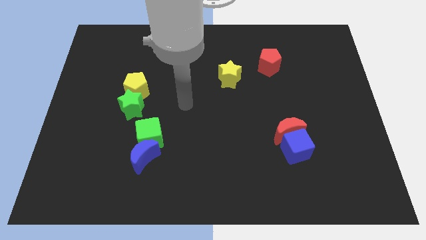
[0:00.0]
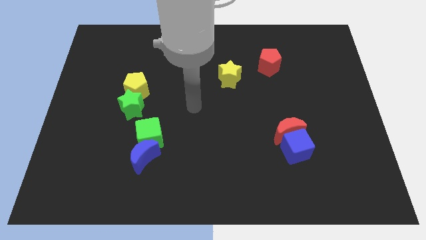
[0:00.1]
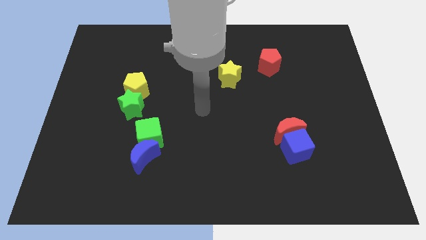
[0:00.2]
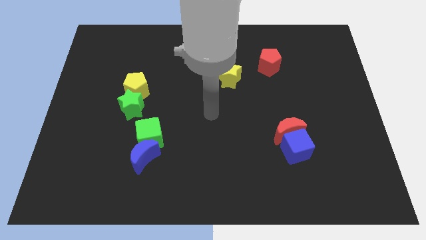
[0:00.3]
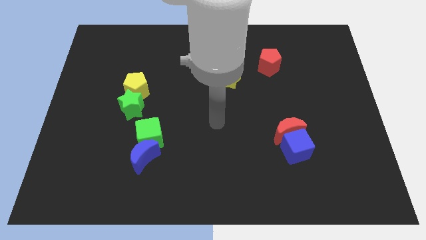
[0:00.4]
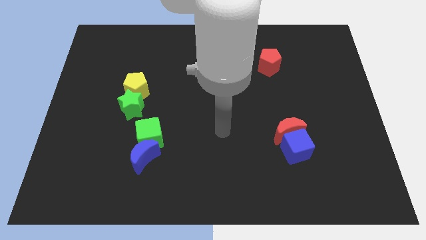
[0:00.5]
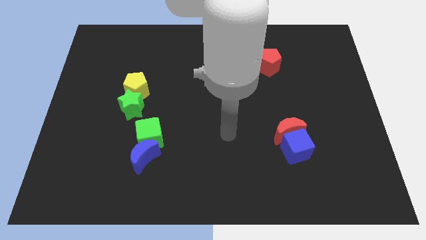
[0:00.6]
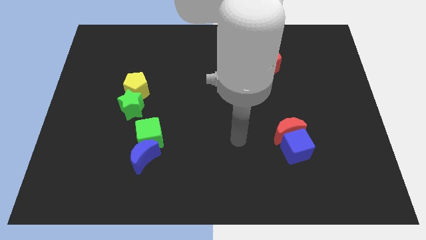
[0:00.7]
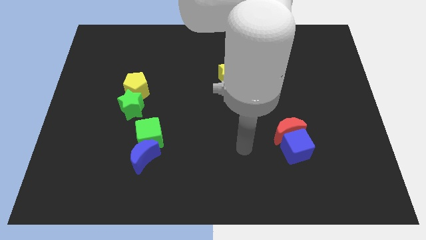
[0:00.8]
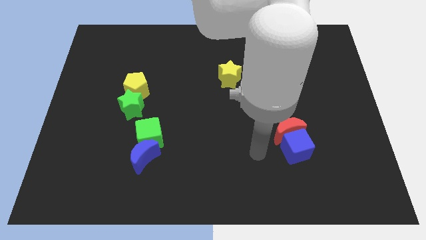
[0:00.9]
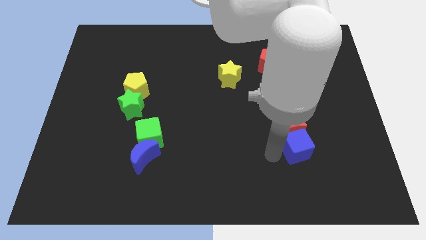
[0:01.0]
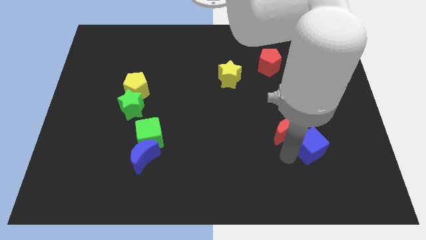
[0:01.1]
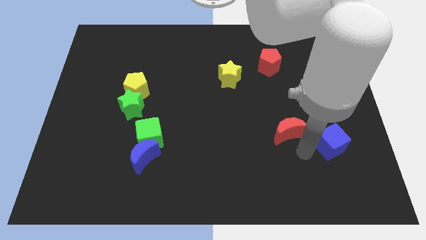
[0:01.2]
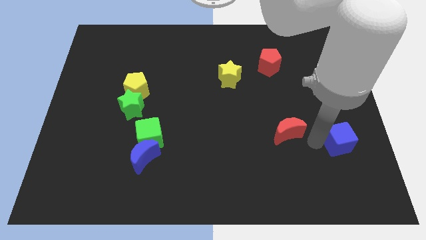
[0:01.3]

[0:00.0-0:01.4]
separate the red moon from the blue cube

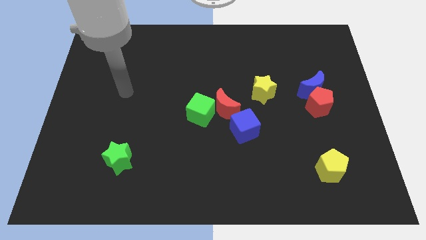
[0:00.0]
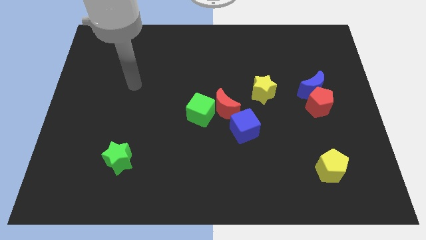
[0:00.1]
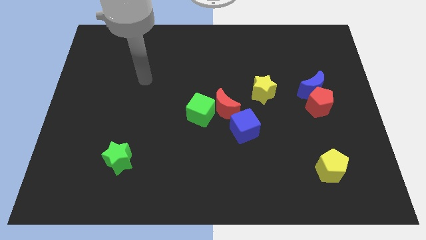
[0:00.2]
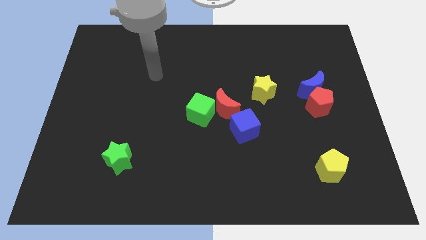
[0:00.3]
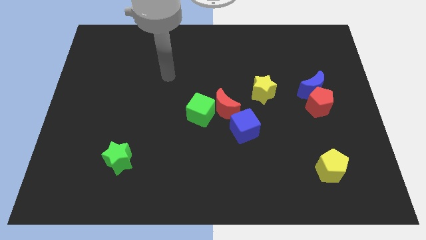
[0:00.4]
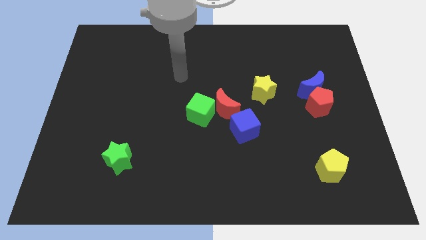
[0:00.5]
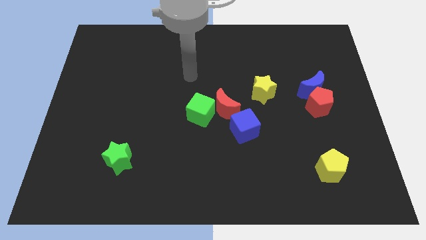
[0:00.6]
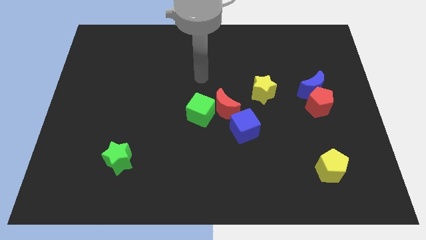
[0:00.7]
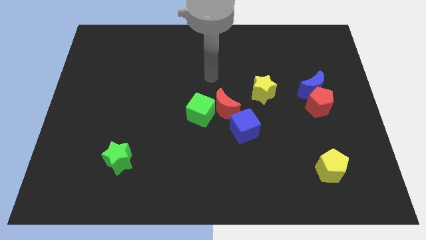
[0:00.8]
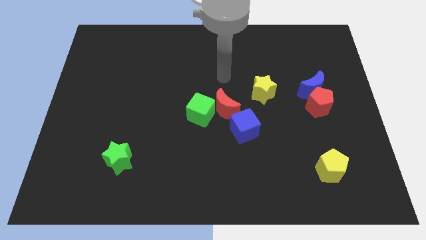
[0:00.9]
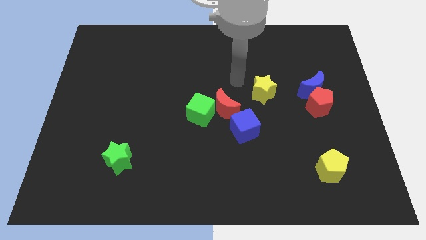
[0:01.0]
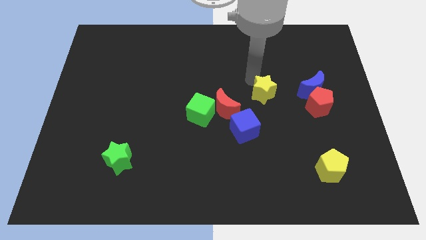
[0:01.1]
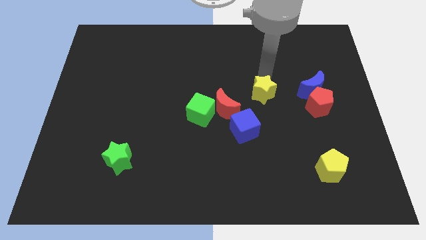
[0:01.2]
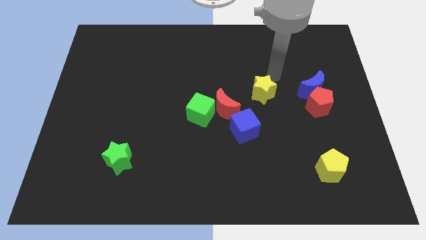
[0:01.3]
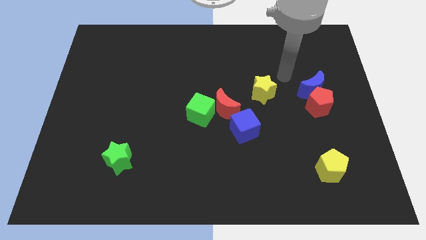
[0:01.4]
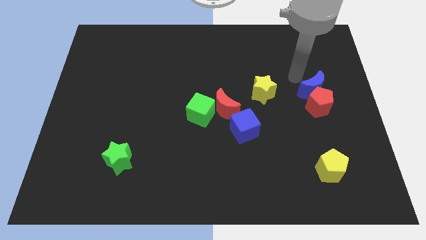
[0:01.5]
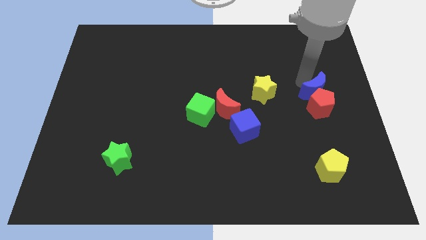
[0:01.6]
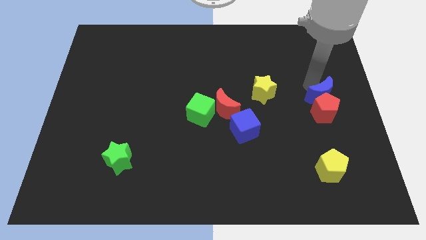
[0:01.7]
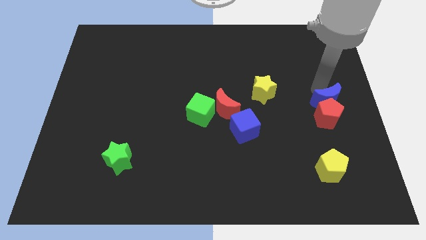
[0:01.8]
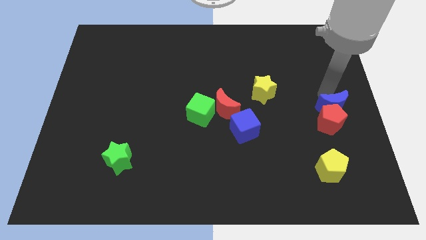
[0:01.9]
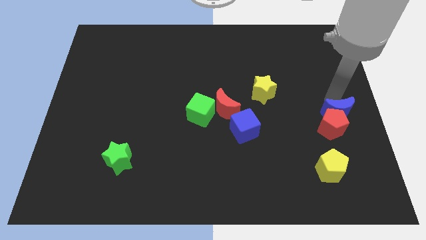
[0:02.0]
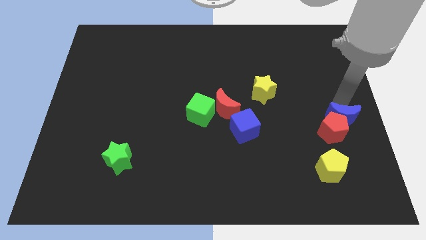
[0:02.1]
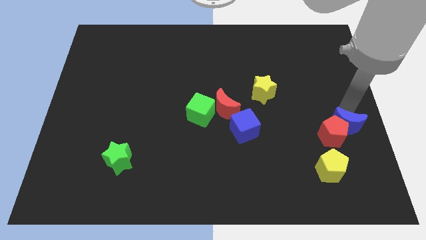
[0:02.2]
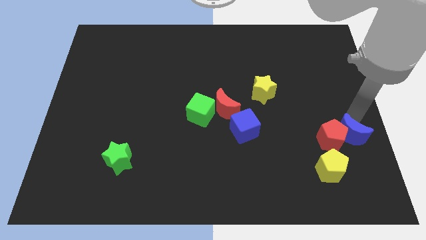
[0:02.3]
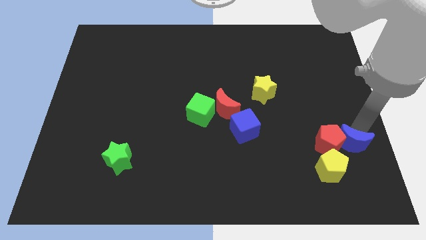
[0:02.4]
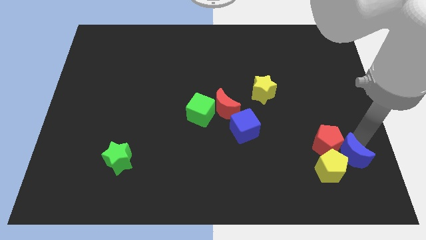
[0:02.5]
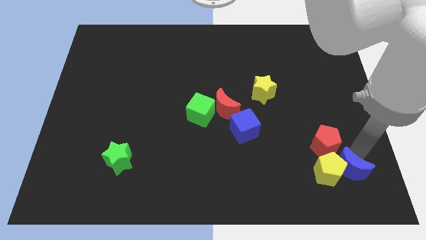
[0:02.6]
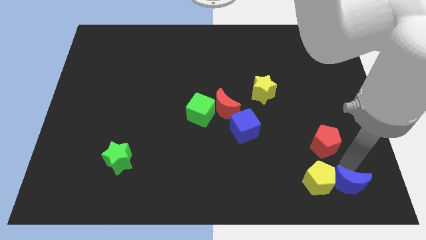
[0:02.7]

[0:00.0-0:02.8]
pull the red pentagon apart from the blue moon

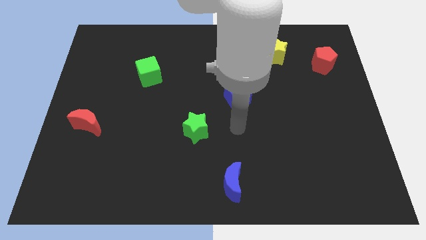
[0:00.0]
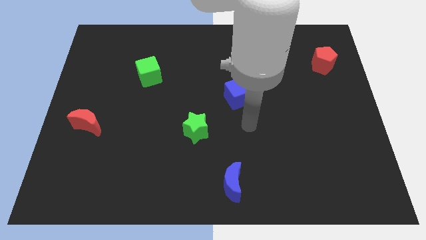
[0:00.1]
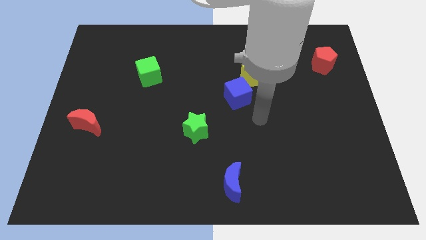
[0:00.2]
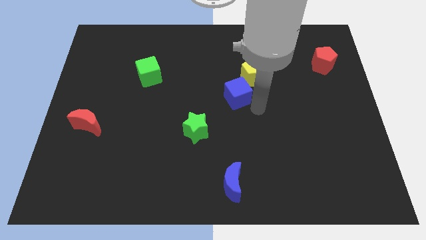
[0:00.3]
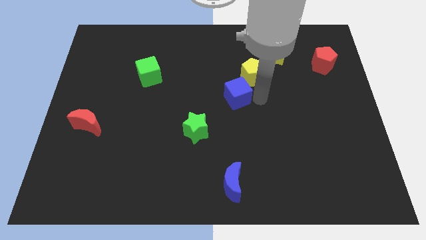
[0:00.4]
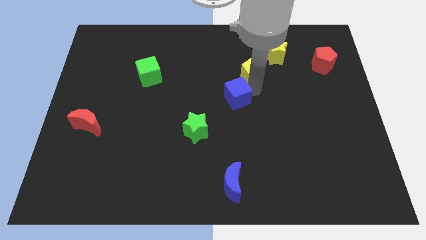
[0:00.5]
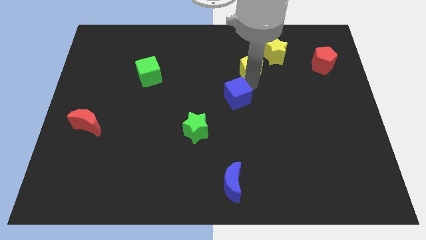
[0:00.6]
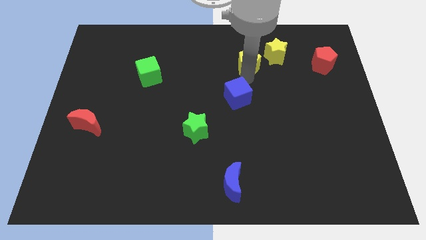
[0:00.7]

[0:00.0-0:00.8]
separate the blue cube from the yellow pentagon

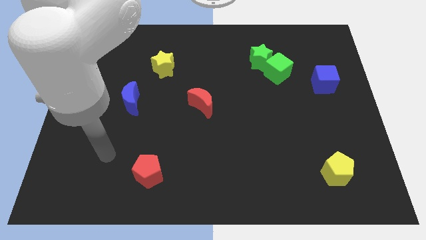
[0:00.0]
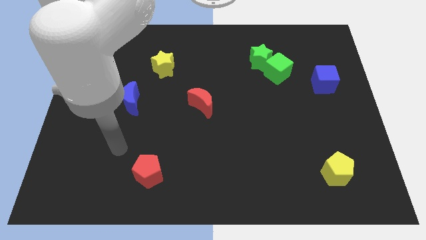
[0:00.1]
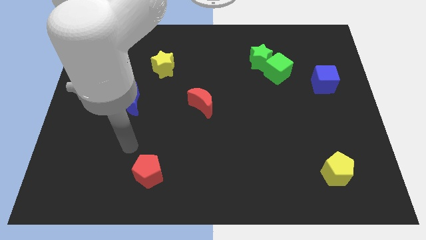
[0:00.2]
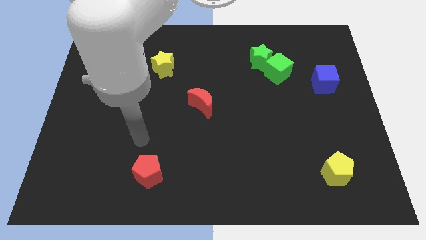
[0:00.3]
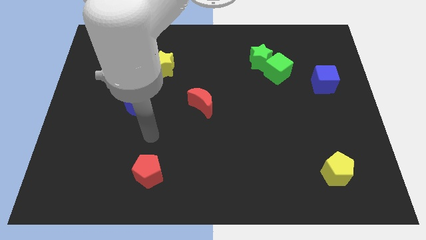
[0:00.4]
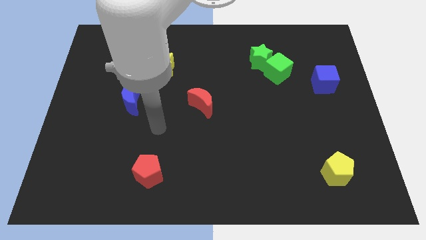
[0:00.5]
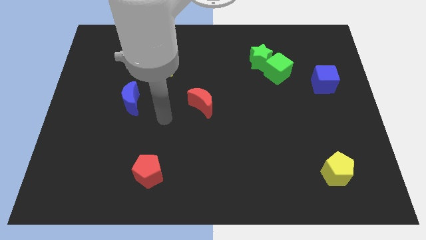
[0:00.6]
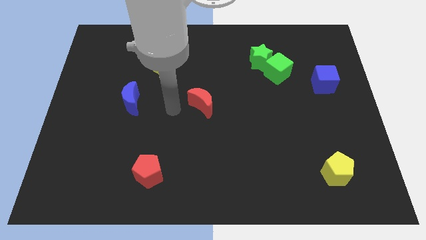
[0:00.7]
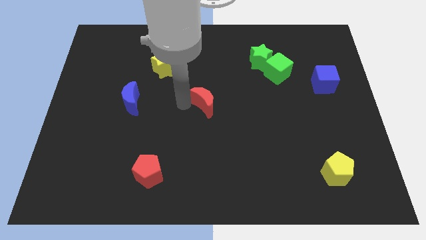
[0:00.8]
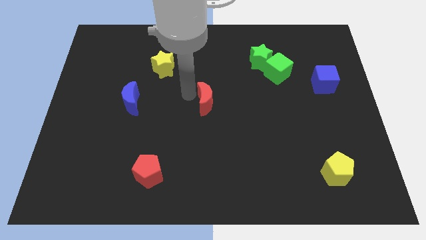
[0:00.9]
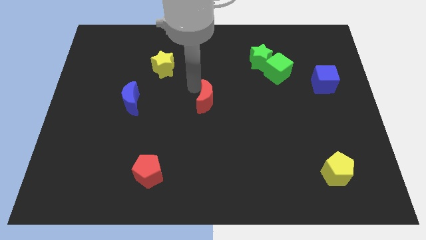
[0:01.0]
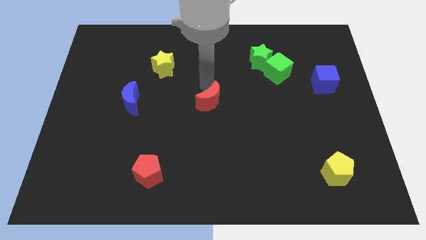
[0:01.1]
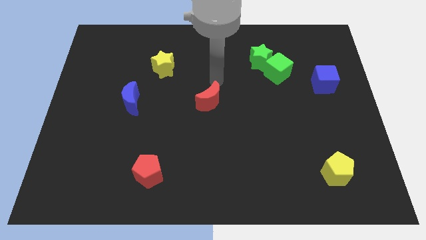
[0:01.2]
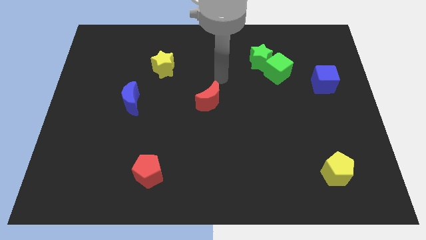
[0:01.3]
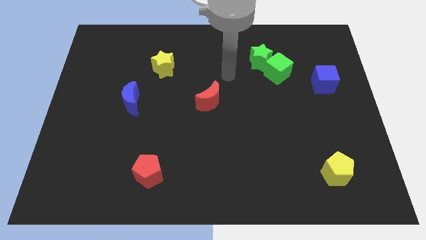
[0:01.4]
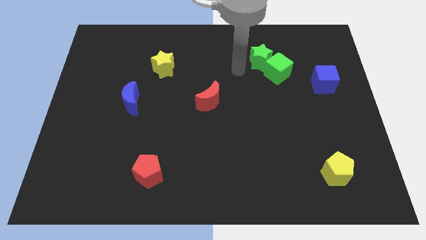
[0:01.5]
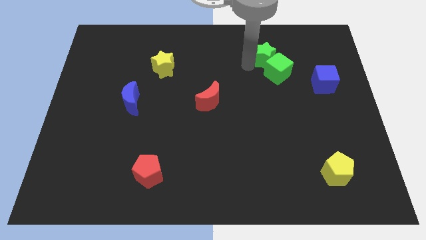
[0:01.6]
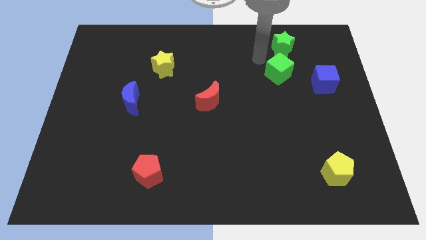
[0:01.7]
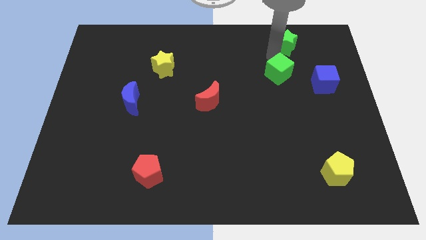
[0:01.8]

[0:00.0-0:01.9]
pull the green cube apart from the green star

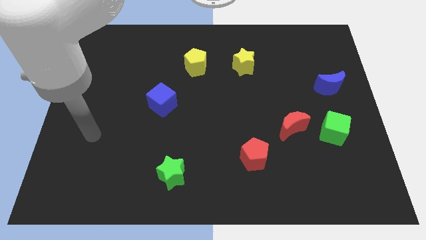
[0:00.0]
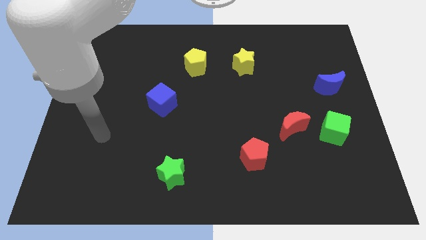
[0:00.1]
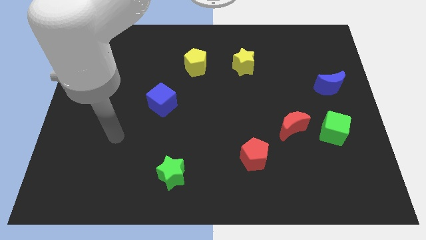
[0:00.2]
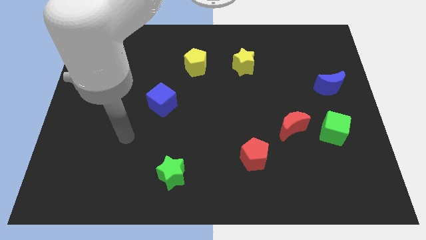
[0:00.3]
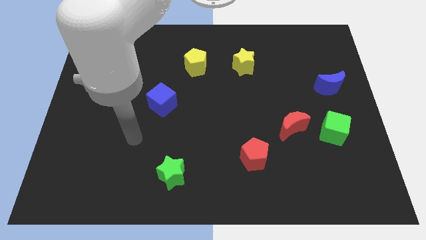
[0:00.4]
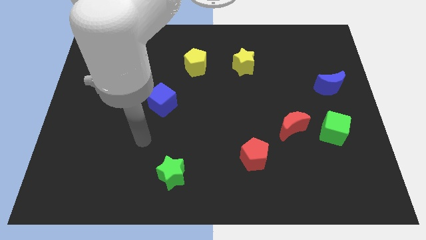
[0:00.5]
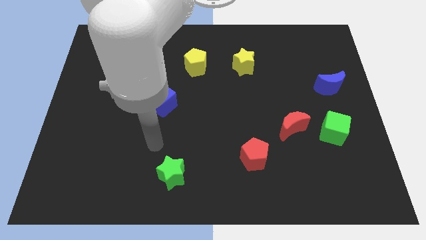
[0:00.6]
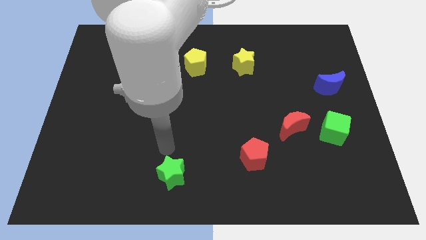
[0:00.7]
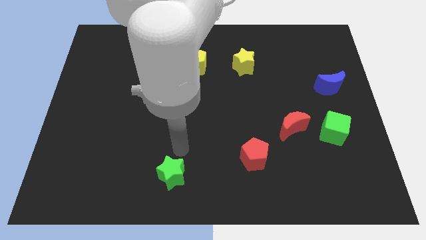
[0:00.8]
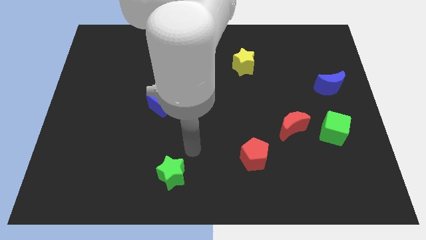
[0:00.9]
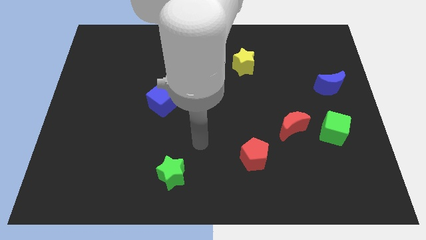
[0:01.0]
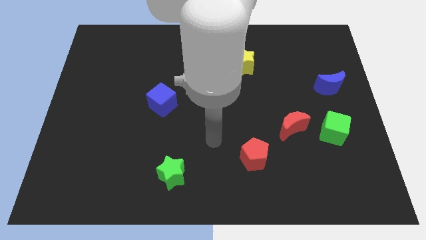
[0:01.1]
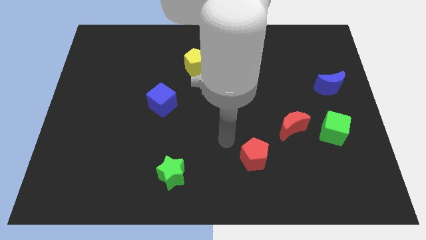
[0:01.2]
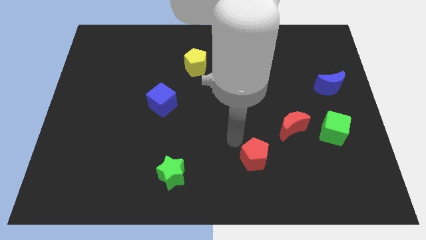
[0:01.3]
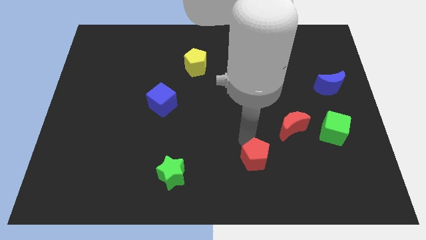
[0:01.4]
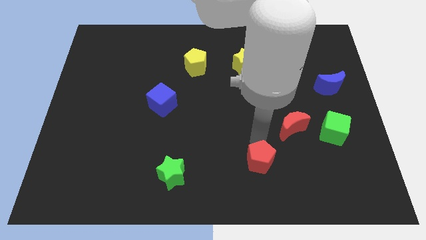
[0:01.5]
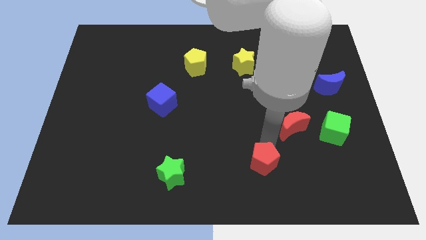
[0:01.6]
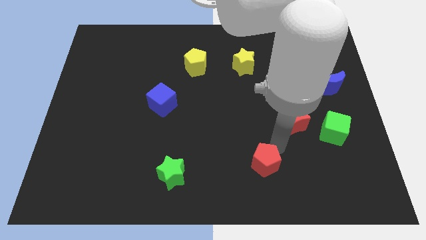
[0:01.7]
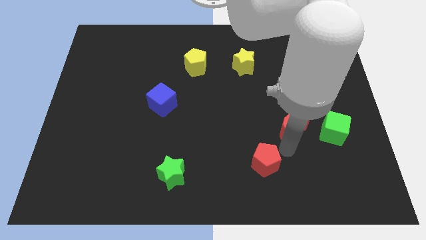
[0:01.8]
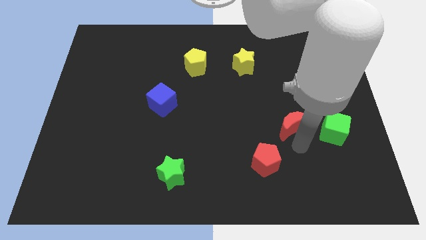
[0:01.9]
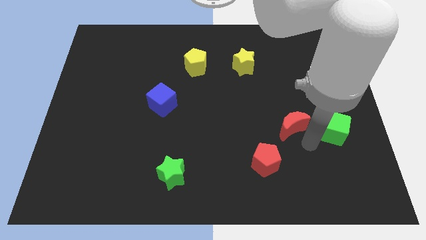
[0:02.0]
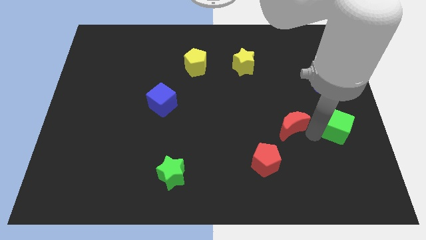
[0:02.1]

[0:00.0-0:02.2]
move the red moon away from the green cube

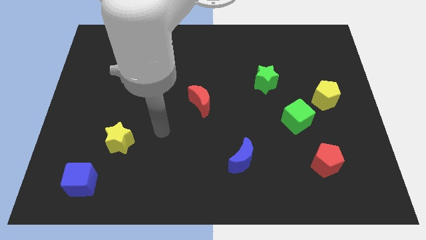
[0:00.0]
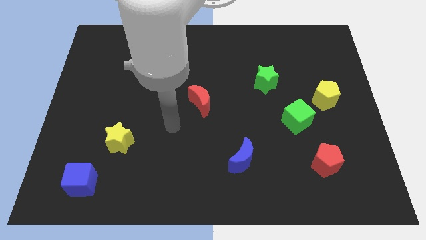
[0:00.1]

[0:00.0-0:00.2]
move the green cube away from the yellow pentagon
